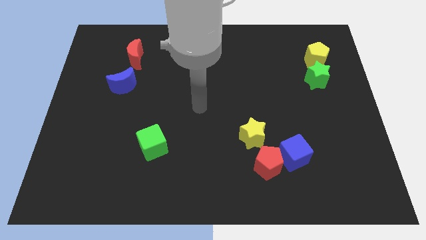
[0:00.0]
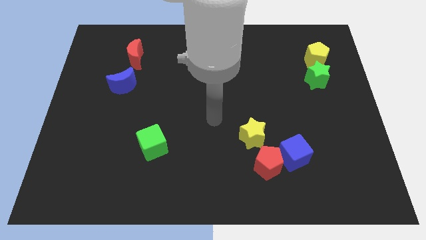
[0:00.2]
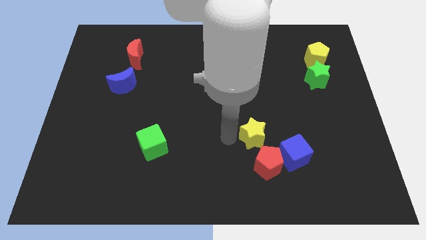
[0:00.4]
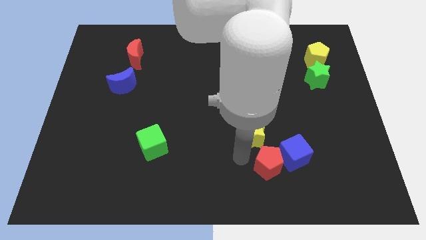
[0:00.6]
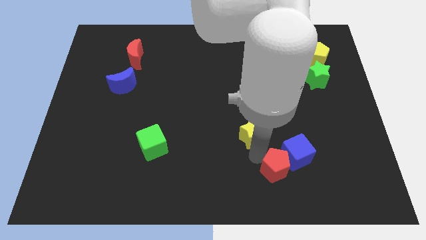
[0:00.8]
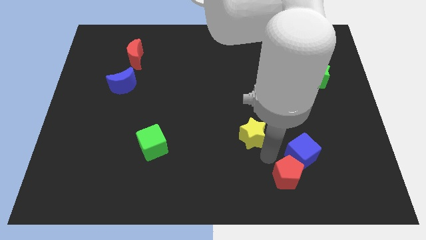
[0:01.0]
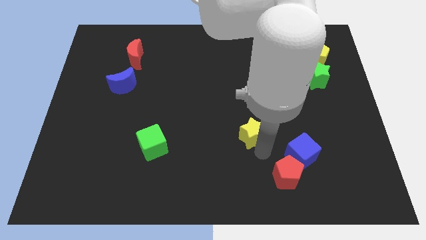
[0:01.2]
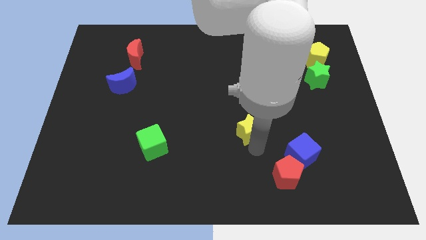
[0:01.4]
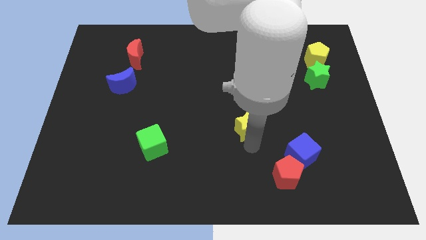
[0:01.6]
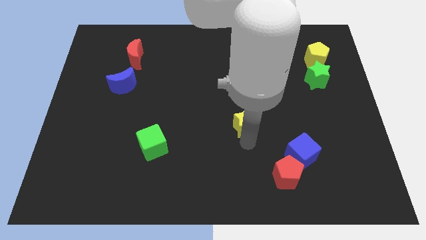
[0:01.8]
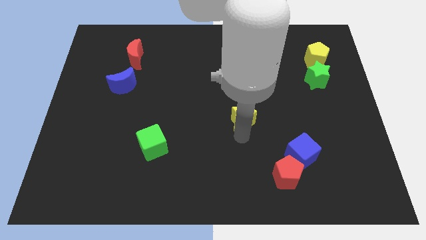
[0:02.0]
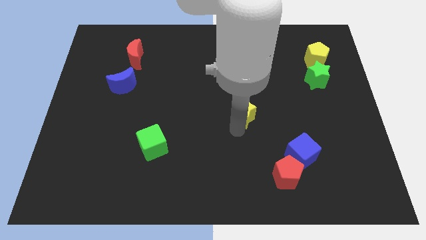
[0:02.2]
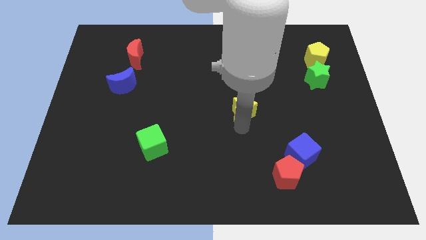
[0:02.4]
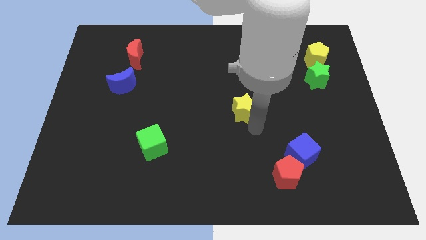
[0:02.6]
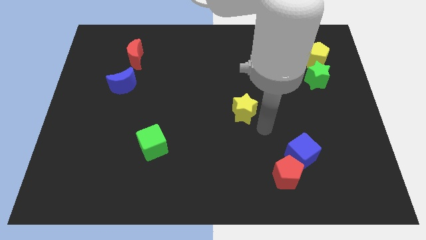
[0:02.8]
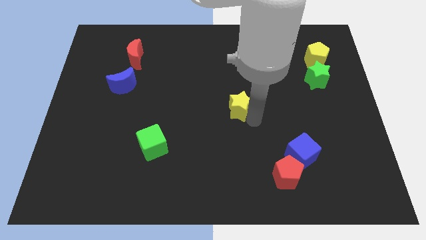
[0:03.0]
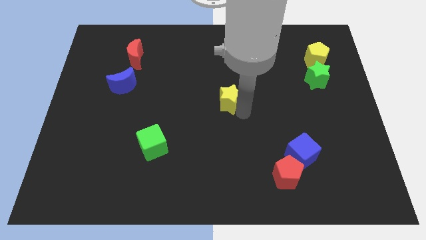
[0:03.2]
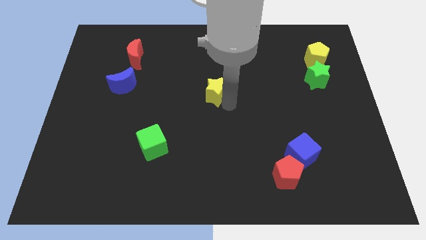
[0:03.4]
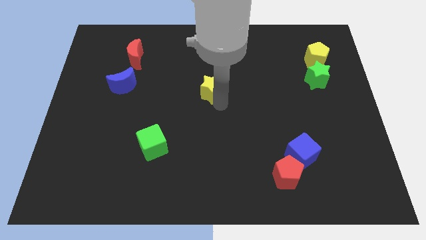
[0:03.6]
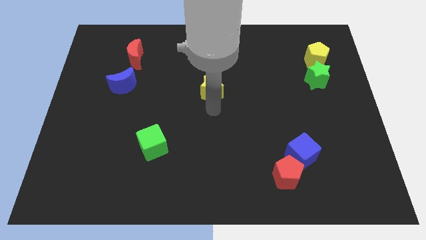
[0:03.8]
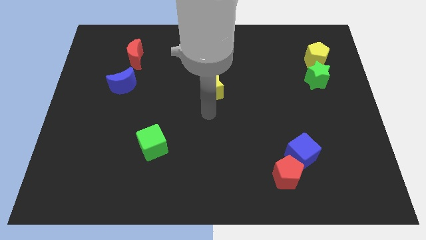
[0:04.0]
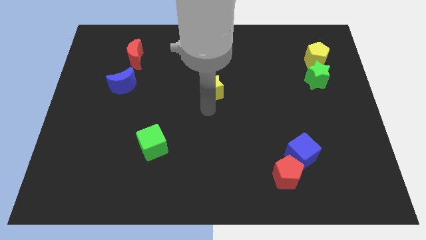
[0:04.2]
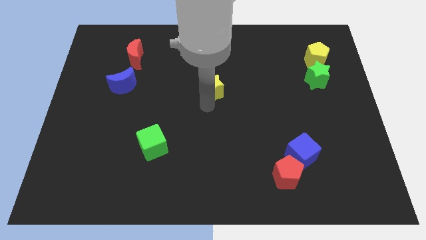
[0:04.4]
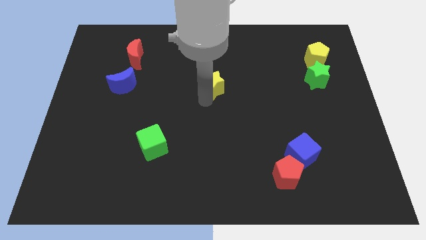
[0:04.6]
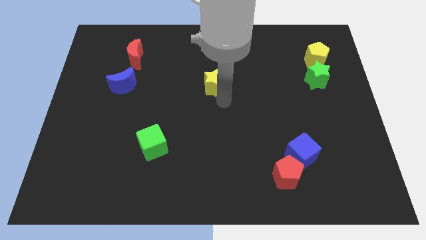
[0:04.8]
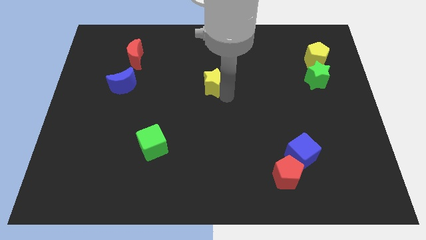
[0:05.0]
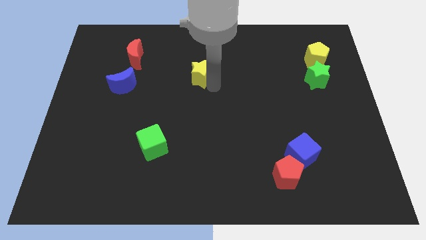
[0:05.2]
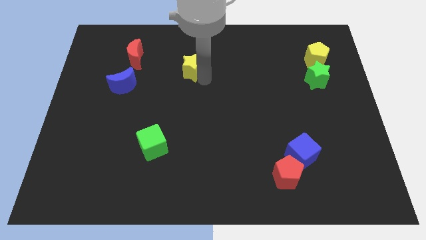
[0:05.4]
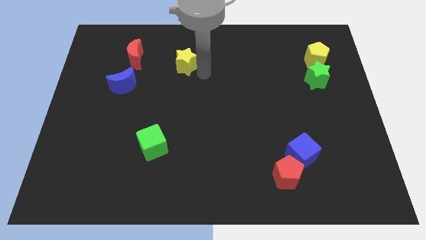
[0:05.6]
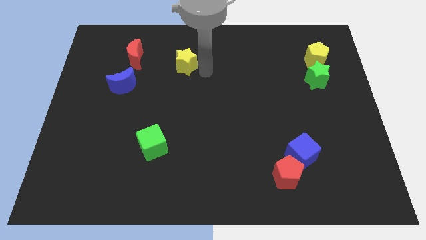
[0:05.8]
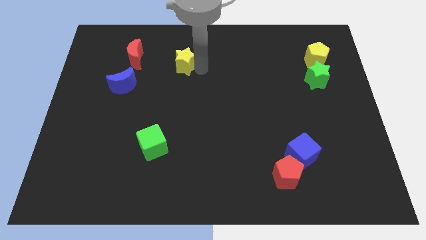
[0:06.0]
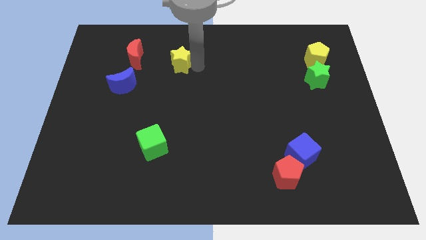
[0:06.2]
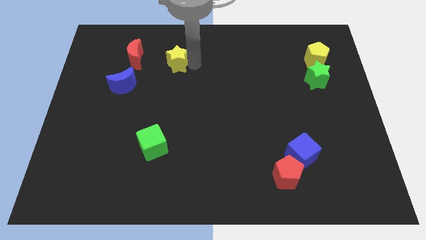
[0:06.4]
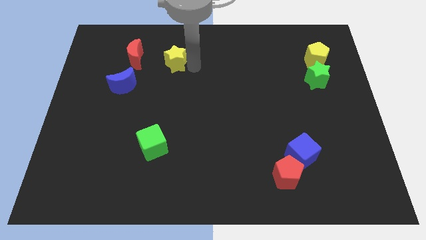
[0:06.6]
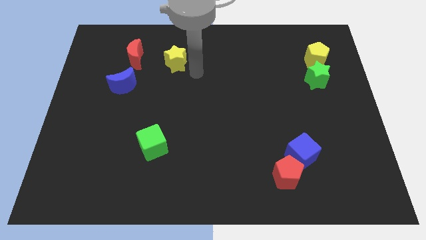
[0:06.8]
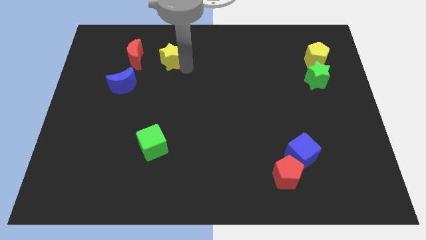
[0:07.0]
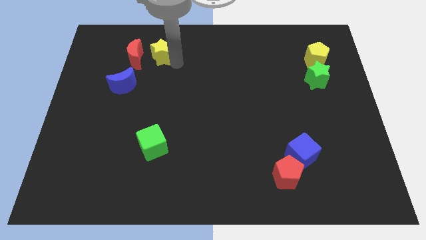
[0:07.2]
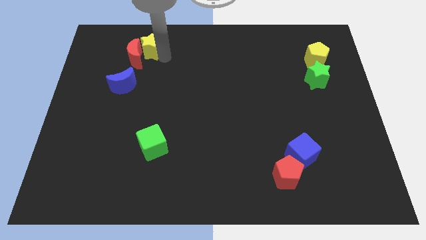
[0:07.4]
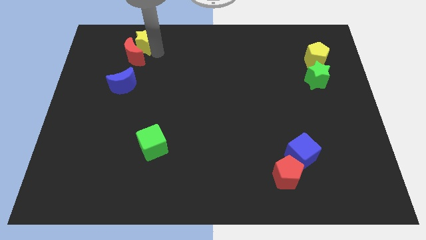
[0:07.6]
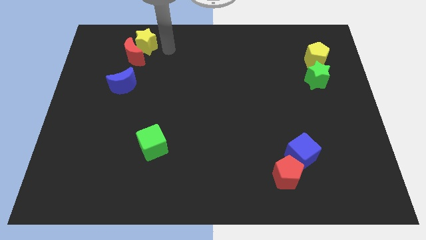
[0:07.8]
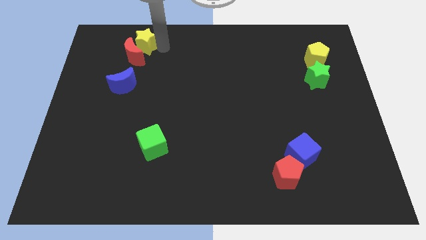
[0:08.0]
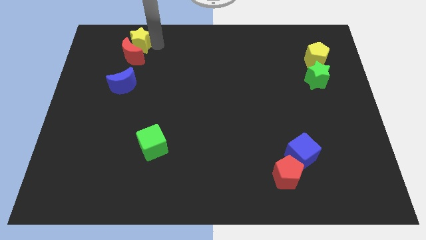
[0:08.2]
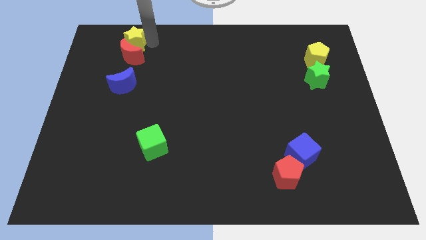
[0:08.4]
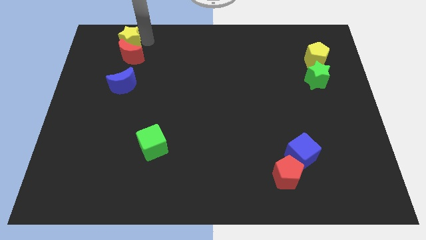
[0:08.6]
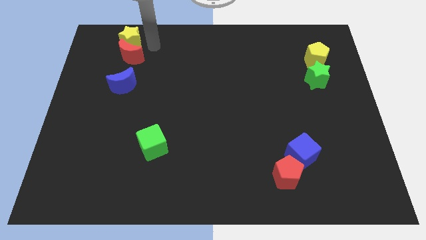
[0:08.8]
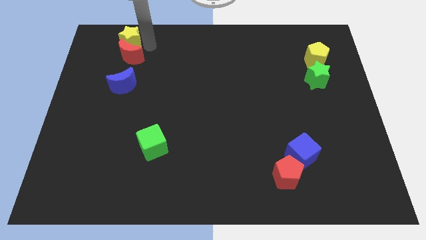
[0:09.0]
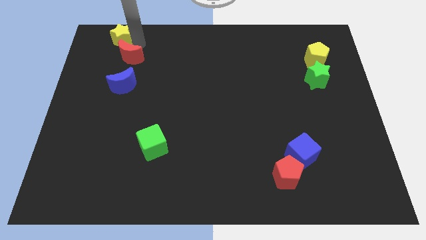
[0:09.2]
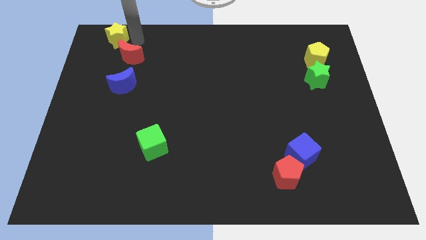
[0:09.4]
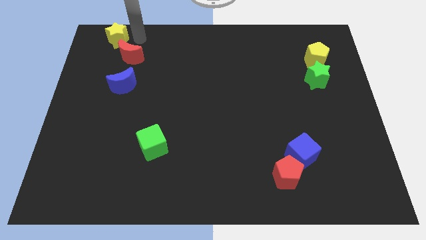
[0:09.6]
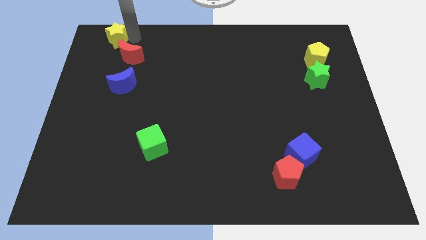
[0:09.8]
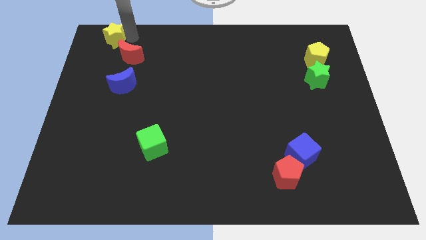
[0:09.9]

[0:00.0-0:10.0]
slide the yellow star to the top left

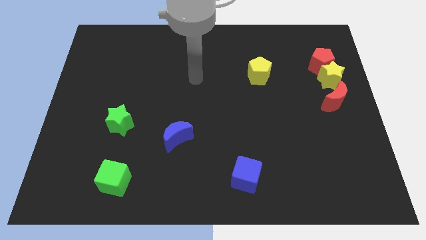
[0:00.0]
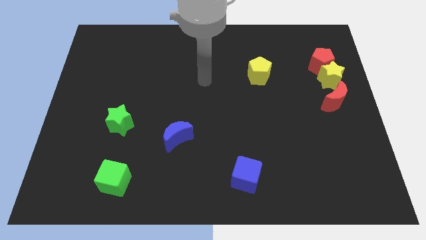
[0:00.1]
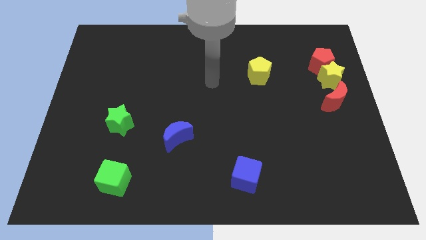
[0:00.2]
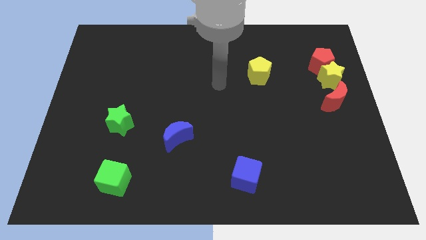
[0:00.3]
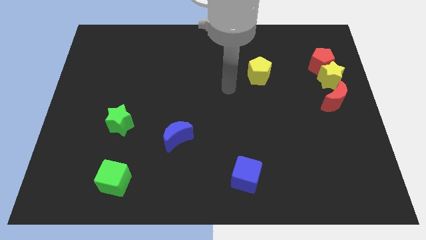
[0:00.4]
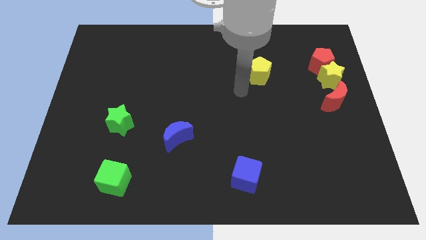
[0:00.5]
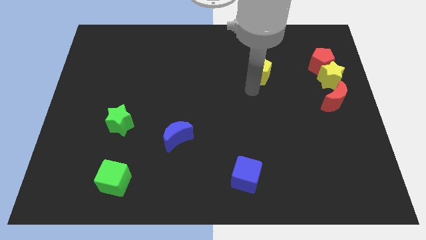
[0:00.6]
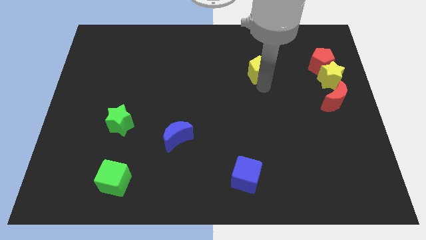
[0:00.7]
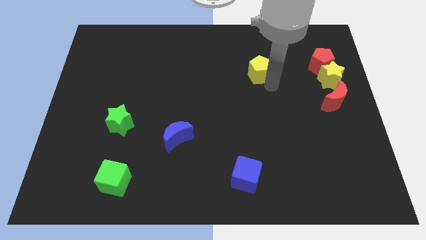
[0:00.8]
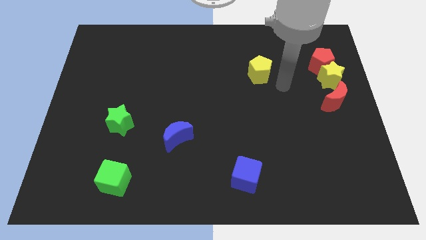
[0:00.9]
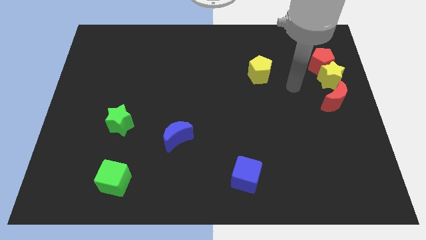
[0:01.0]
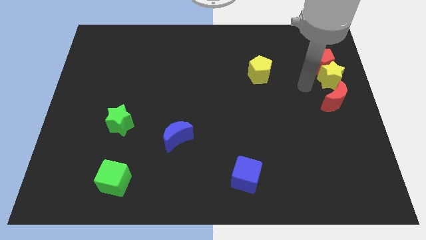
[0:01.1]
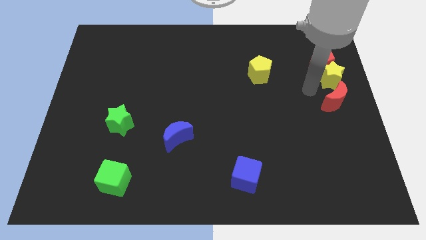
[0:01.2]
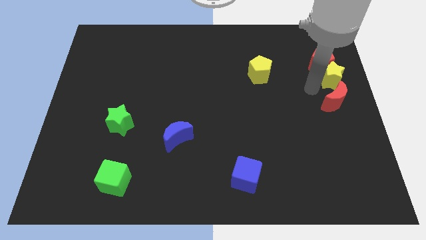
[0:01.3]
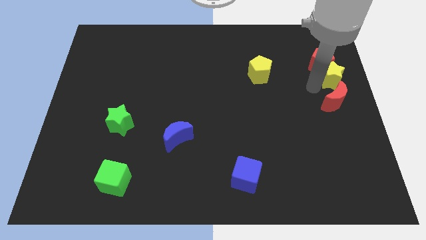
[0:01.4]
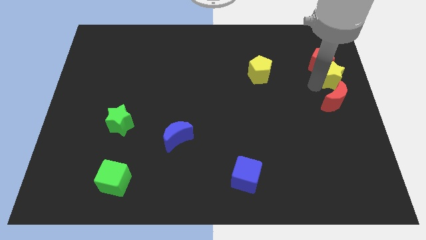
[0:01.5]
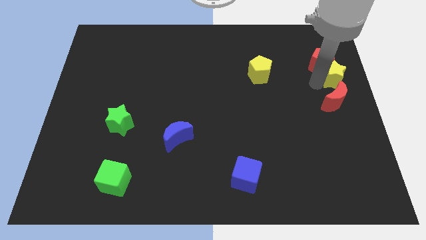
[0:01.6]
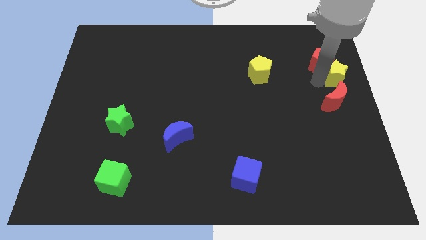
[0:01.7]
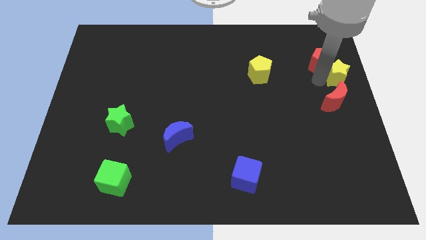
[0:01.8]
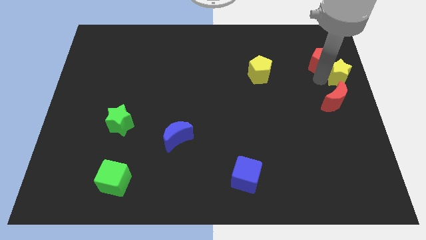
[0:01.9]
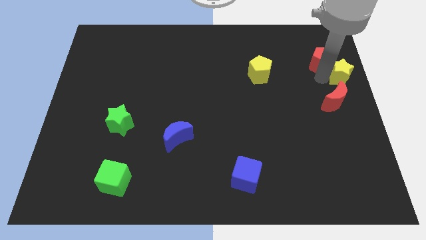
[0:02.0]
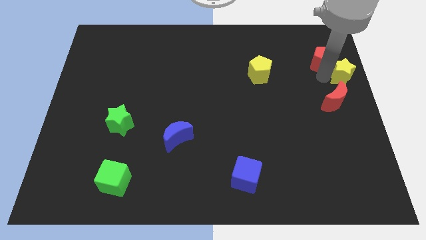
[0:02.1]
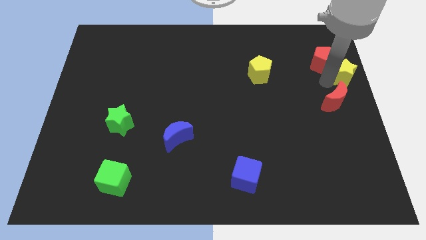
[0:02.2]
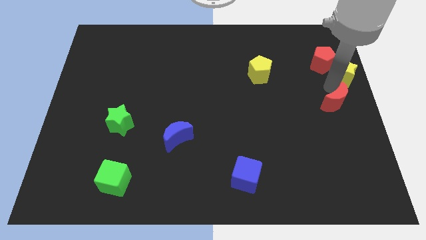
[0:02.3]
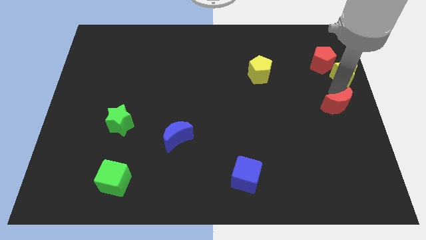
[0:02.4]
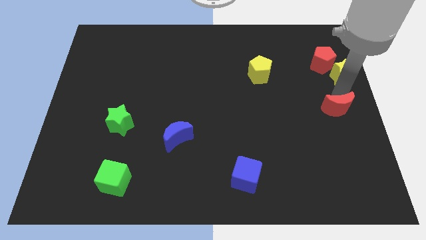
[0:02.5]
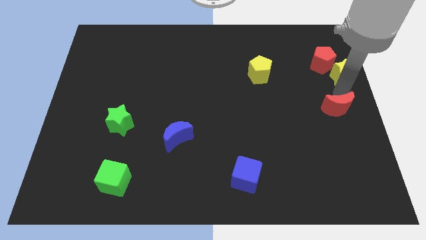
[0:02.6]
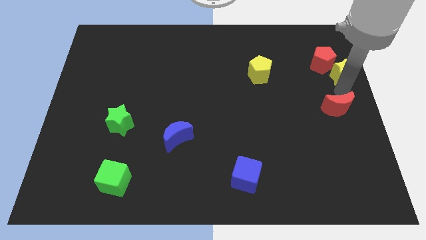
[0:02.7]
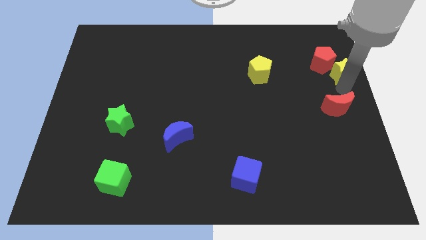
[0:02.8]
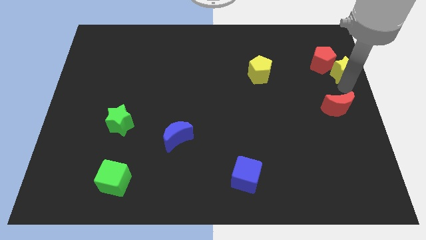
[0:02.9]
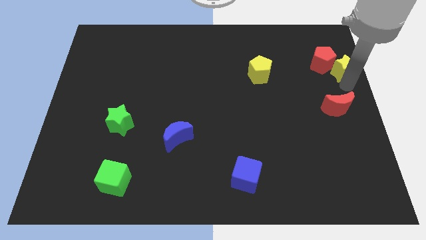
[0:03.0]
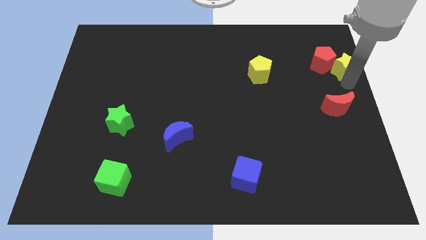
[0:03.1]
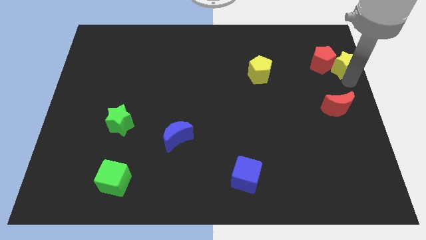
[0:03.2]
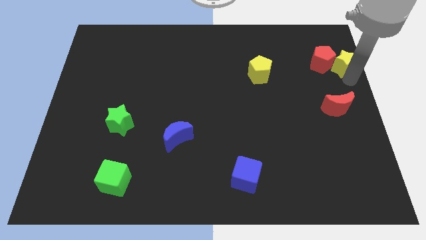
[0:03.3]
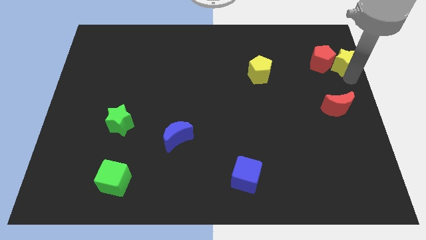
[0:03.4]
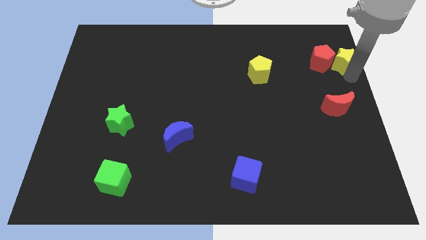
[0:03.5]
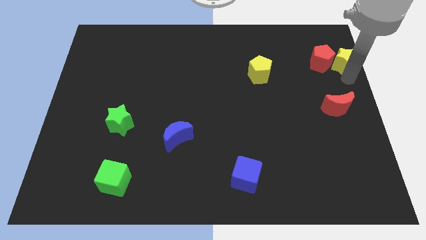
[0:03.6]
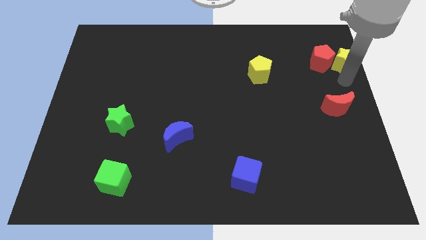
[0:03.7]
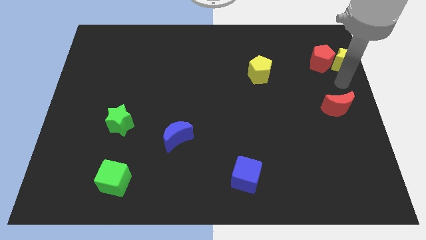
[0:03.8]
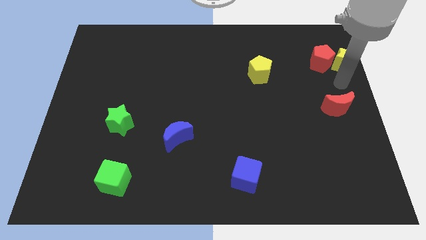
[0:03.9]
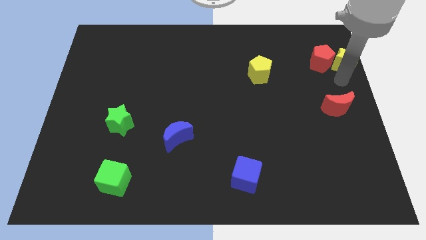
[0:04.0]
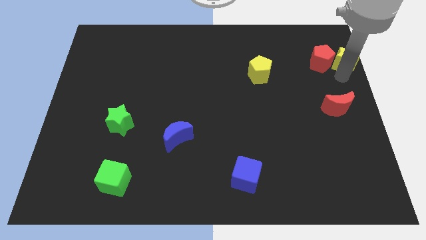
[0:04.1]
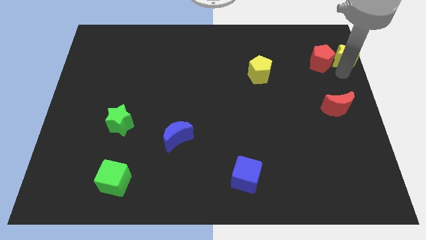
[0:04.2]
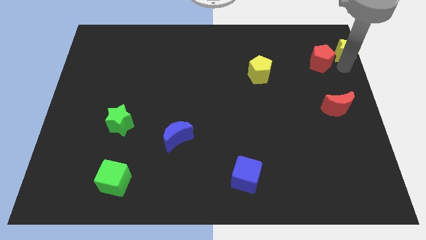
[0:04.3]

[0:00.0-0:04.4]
push the yellow star to the top right of the board
